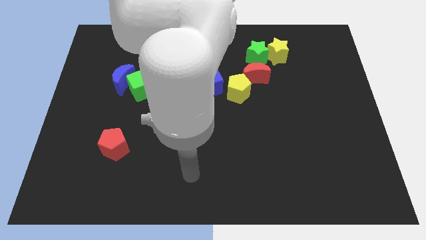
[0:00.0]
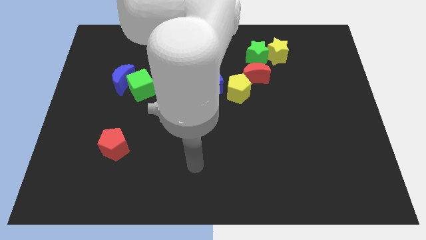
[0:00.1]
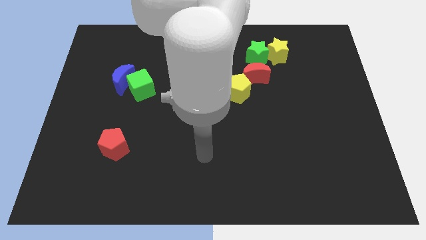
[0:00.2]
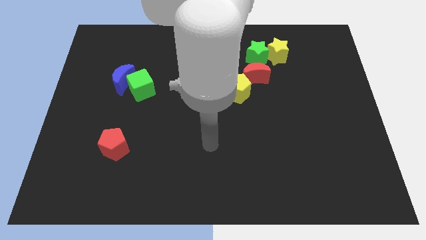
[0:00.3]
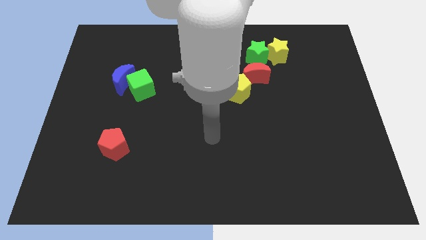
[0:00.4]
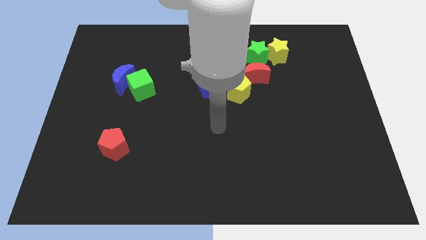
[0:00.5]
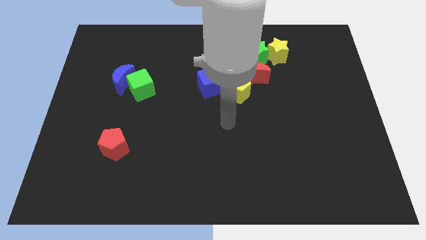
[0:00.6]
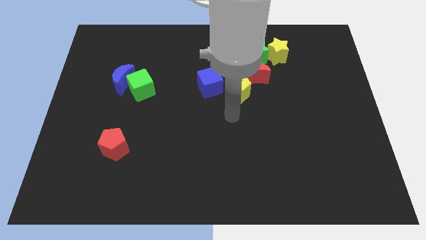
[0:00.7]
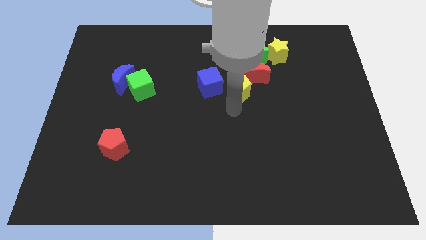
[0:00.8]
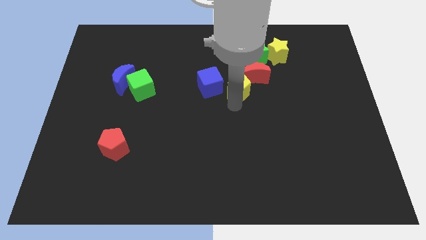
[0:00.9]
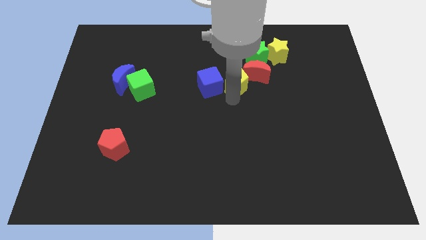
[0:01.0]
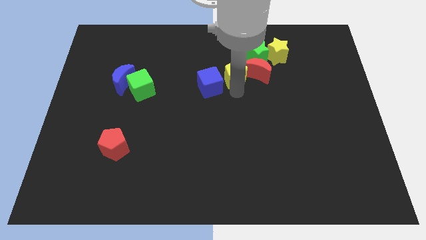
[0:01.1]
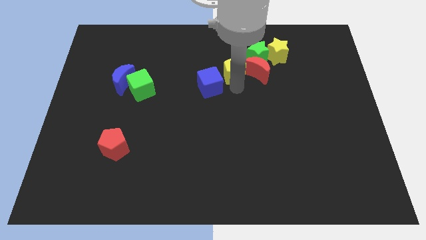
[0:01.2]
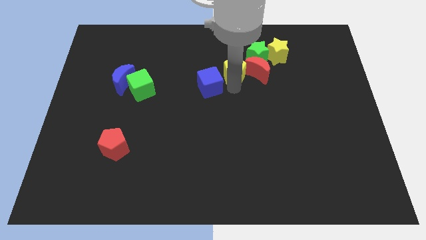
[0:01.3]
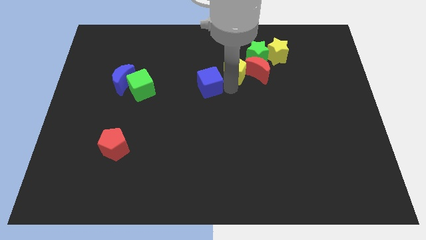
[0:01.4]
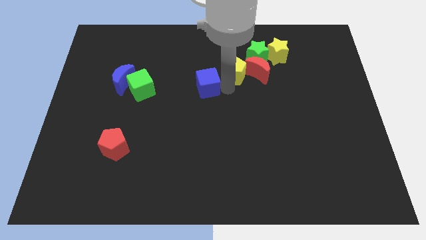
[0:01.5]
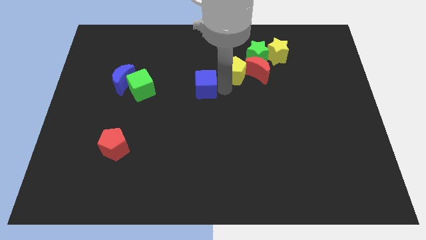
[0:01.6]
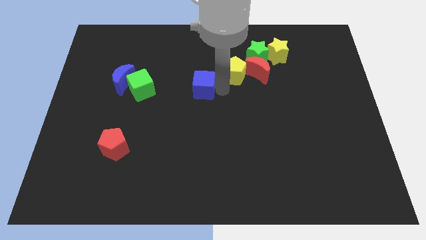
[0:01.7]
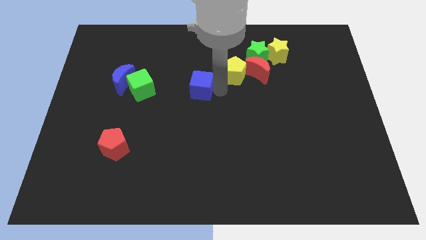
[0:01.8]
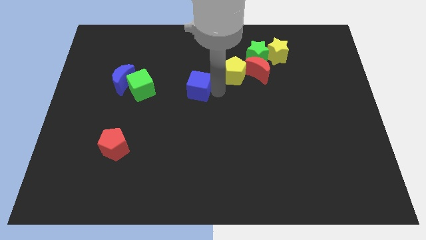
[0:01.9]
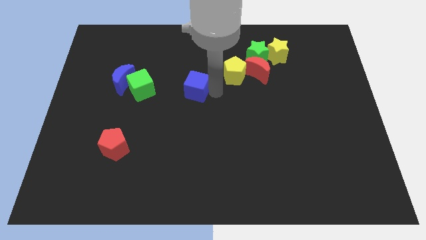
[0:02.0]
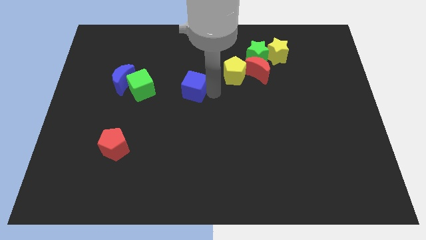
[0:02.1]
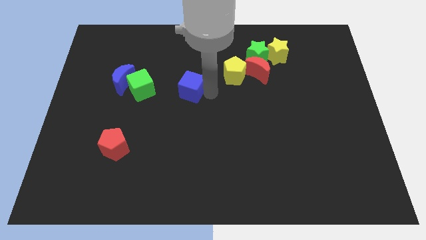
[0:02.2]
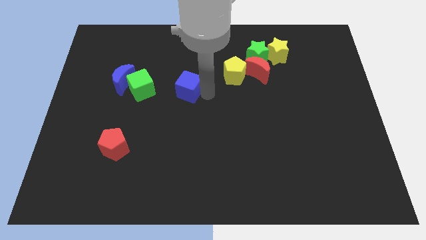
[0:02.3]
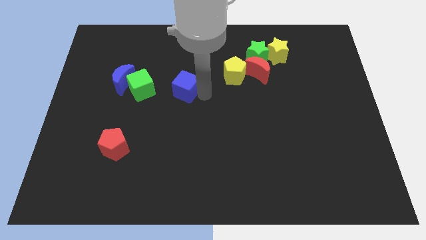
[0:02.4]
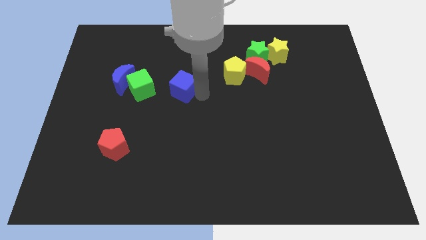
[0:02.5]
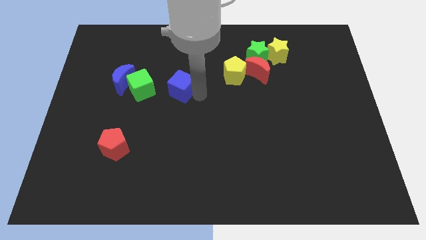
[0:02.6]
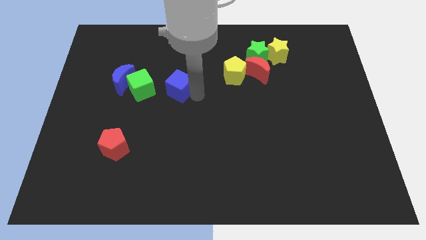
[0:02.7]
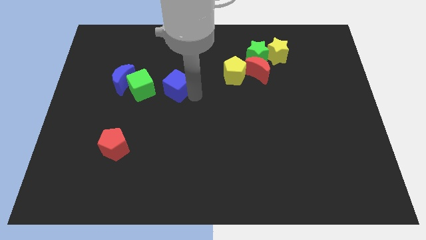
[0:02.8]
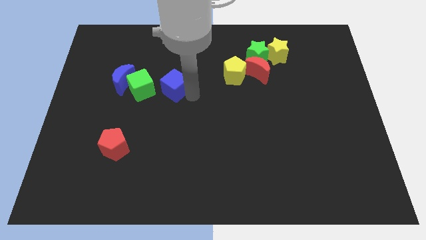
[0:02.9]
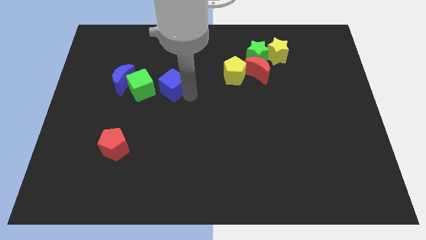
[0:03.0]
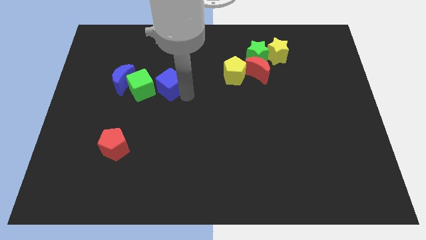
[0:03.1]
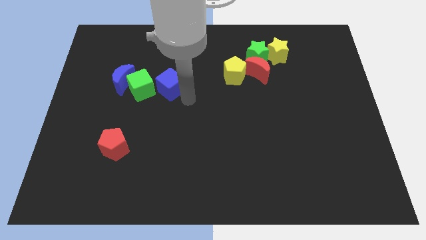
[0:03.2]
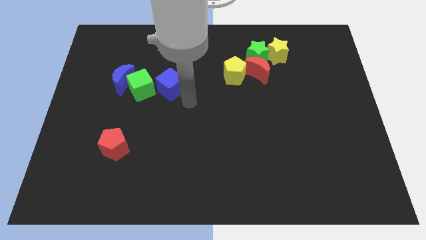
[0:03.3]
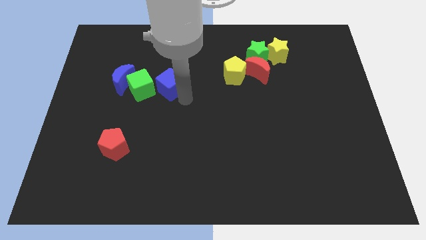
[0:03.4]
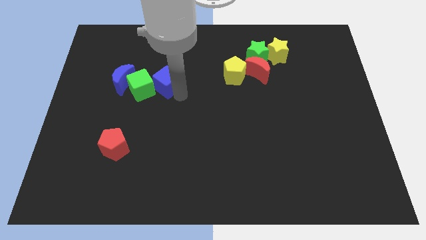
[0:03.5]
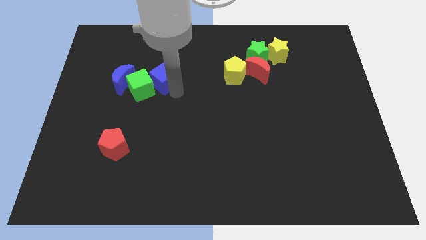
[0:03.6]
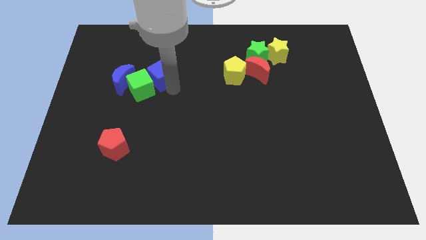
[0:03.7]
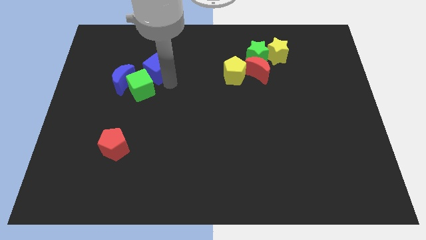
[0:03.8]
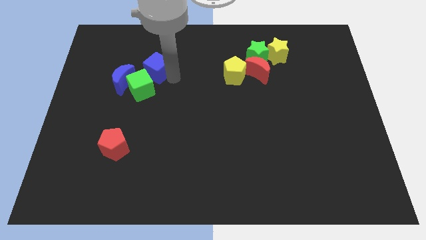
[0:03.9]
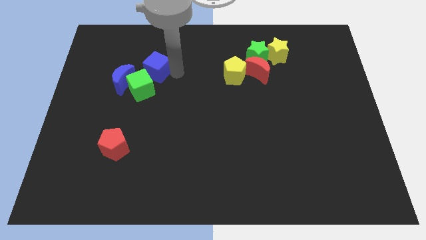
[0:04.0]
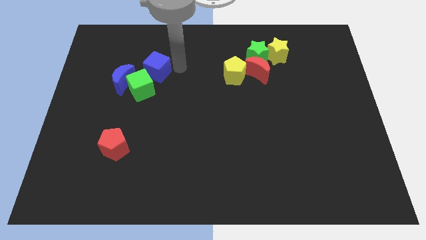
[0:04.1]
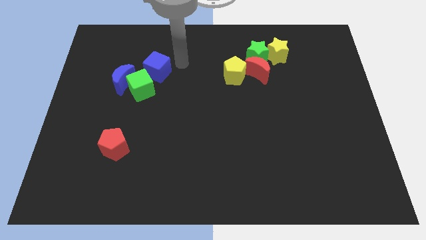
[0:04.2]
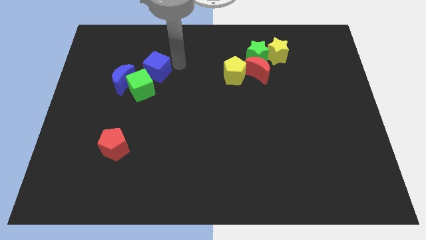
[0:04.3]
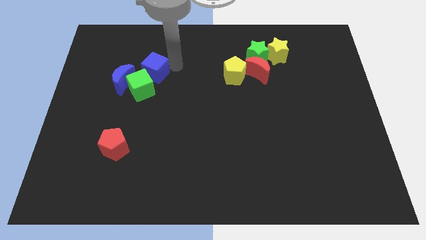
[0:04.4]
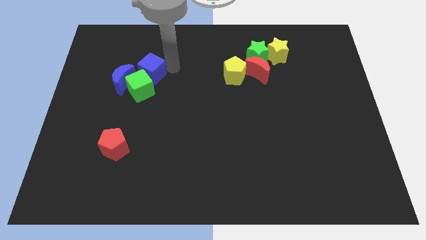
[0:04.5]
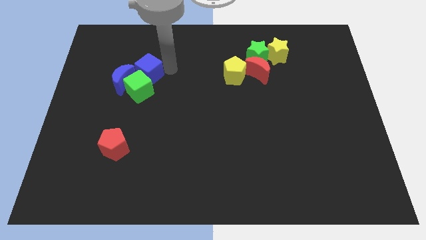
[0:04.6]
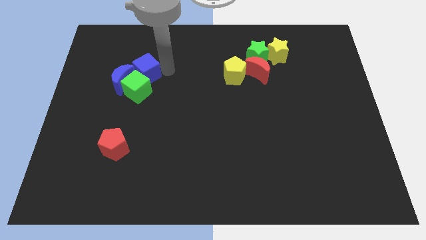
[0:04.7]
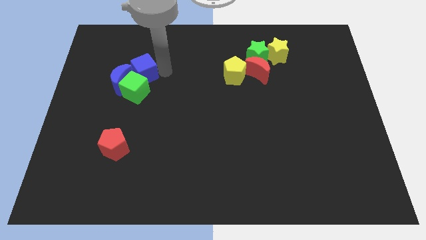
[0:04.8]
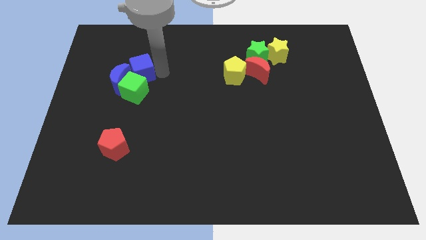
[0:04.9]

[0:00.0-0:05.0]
move the blue cube to the blue moon

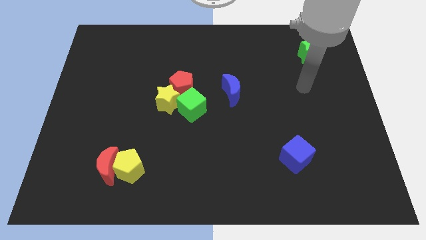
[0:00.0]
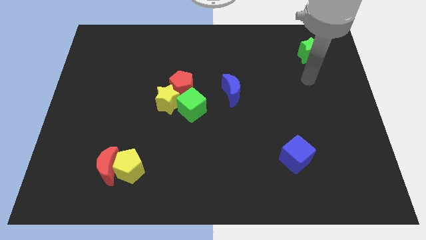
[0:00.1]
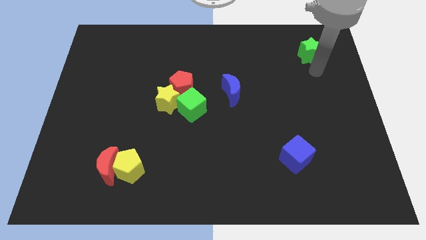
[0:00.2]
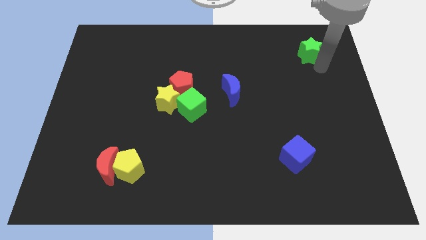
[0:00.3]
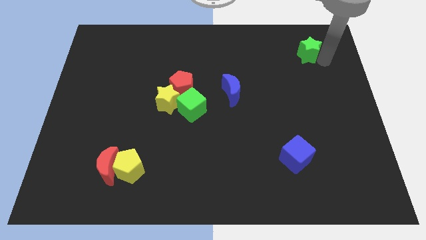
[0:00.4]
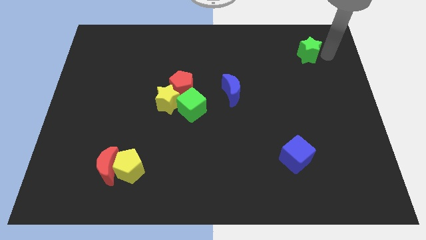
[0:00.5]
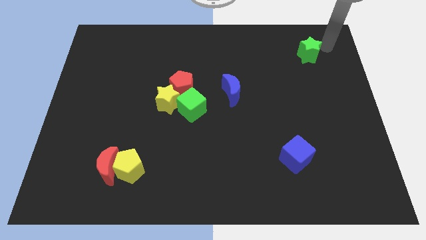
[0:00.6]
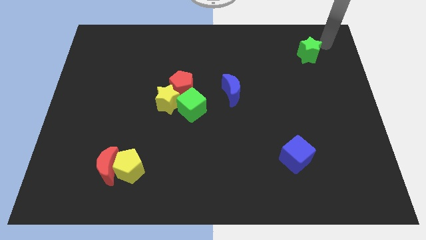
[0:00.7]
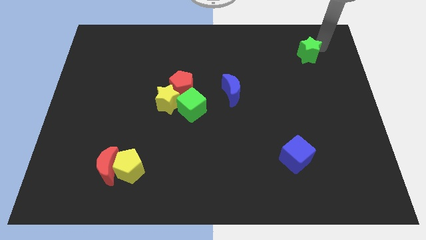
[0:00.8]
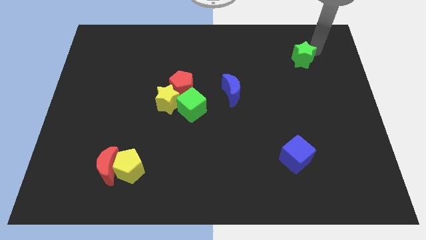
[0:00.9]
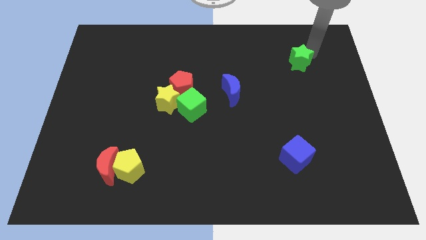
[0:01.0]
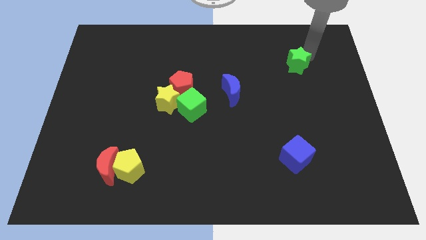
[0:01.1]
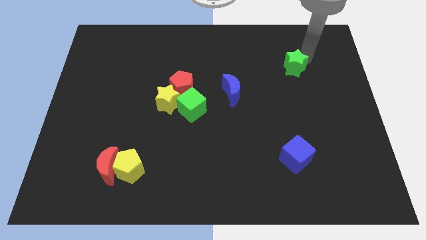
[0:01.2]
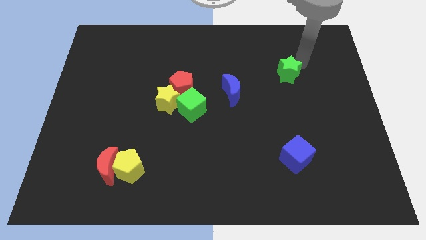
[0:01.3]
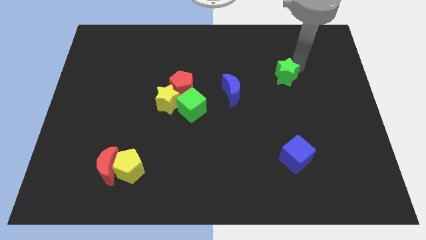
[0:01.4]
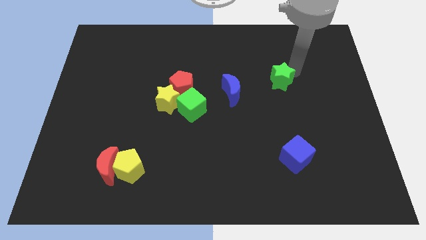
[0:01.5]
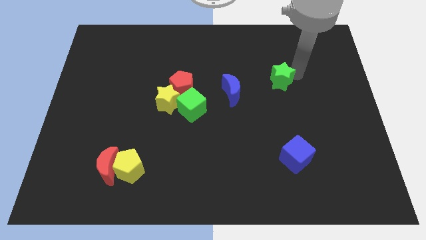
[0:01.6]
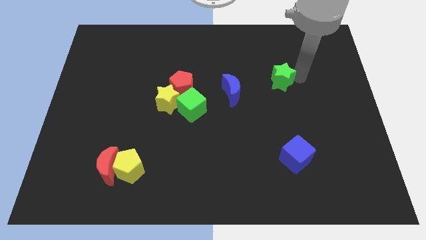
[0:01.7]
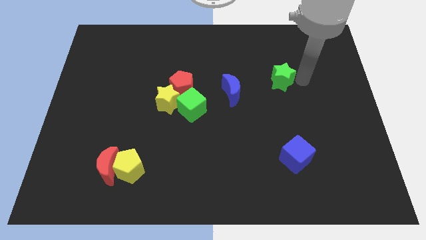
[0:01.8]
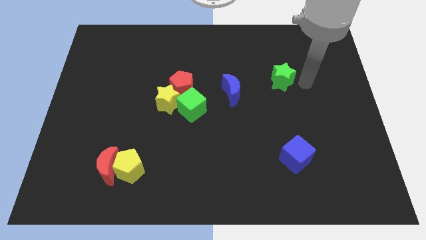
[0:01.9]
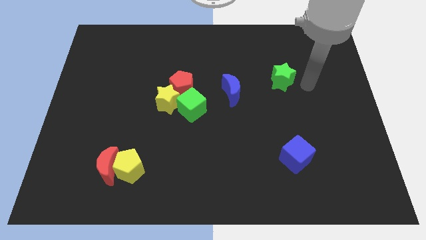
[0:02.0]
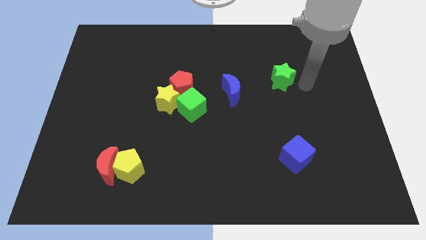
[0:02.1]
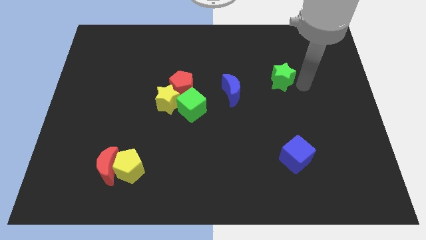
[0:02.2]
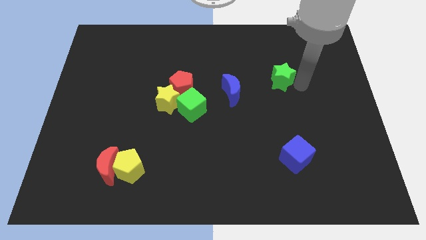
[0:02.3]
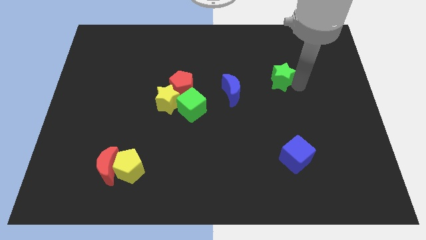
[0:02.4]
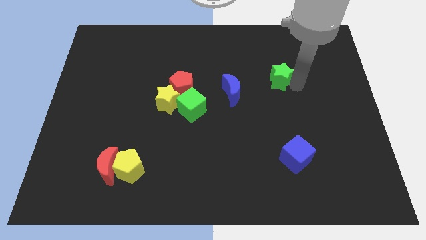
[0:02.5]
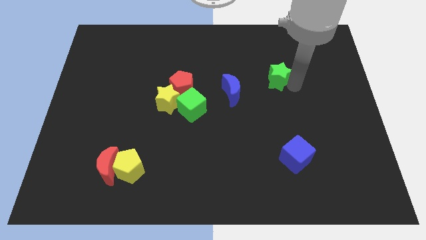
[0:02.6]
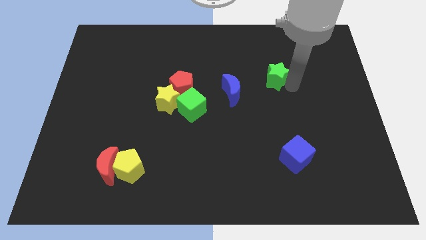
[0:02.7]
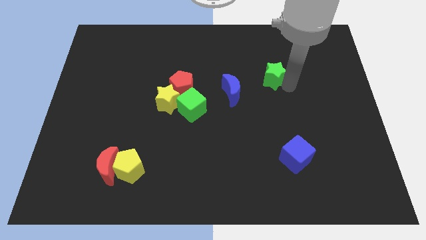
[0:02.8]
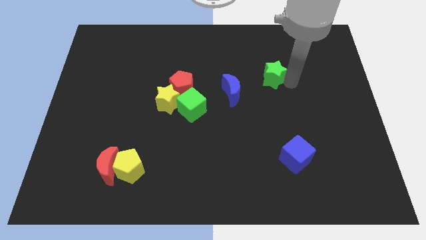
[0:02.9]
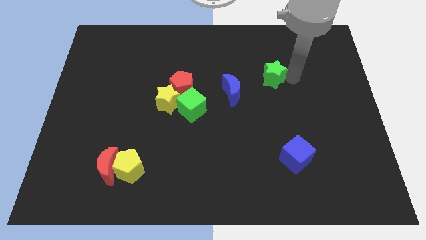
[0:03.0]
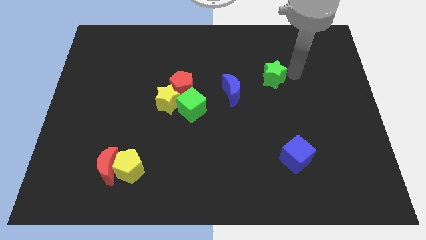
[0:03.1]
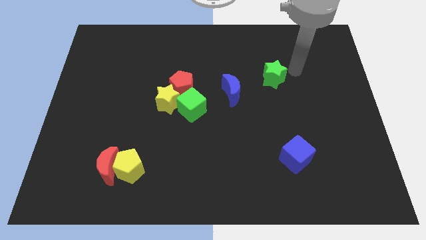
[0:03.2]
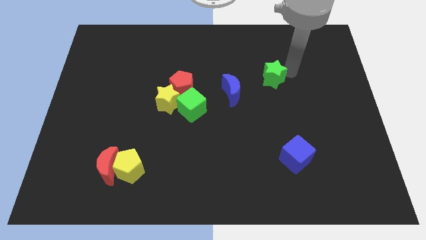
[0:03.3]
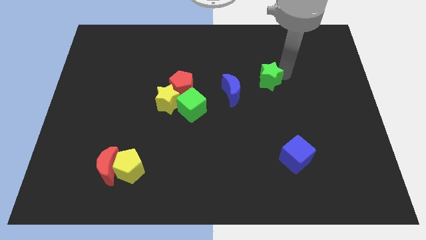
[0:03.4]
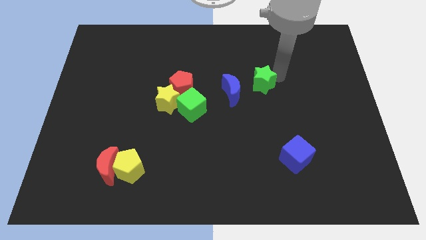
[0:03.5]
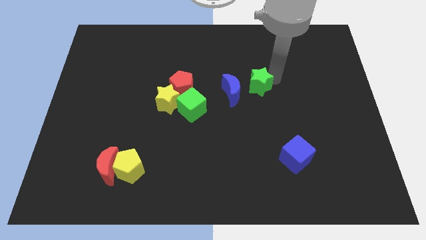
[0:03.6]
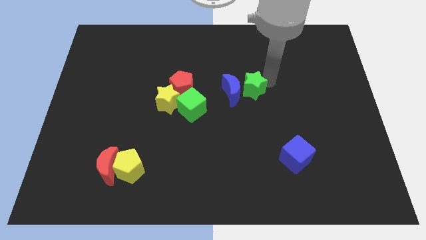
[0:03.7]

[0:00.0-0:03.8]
put the green star close to the blue moon
